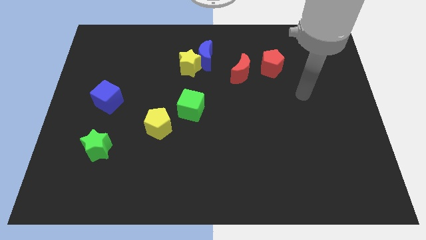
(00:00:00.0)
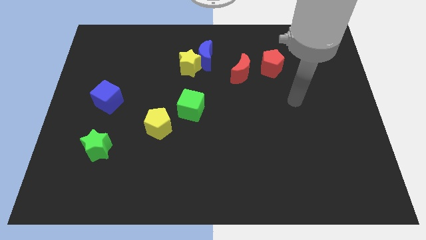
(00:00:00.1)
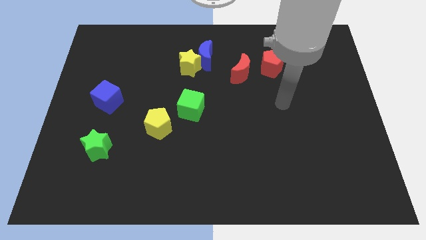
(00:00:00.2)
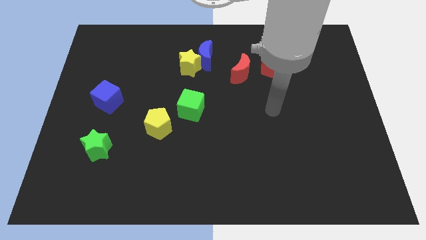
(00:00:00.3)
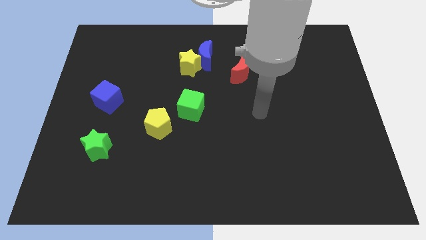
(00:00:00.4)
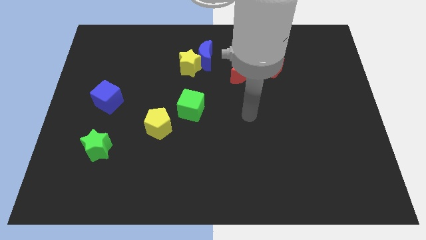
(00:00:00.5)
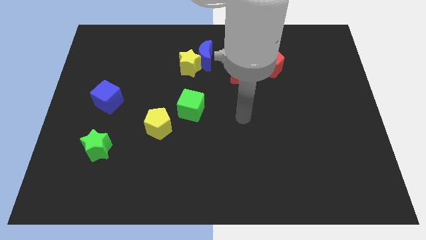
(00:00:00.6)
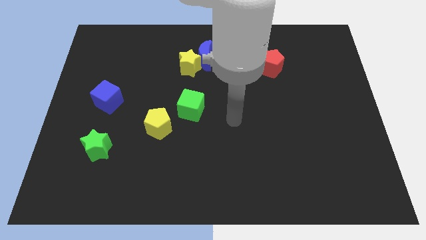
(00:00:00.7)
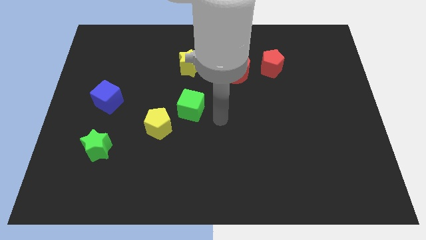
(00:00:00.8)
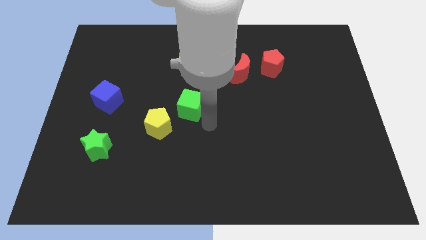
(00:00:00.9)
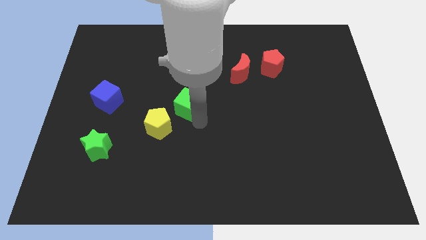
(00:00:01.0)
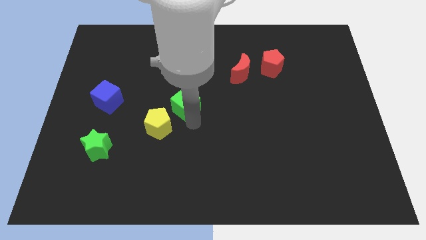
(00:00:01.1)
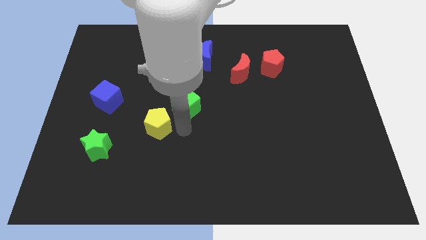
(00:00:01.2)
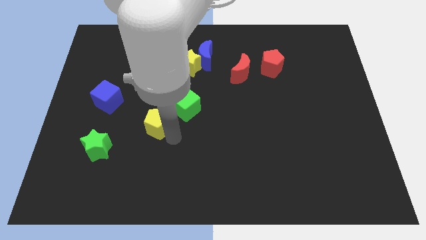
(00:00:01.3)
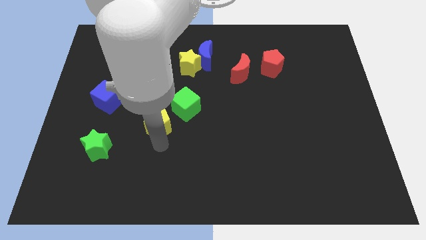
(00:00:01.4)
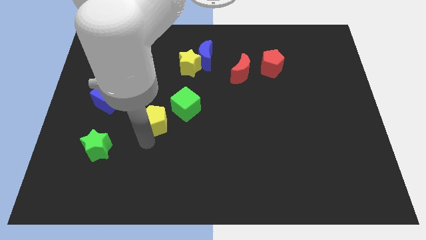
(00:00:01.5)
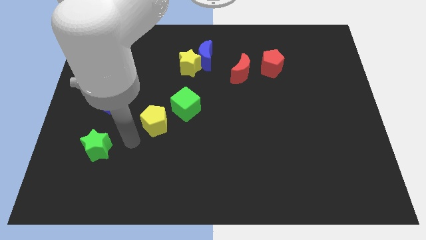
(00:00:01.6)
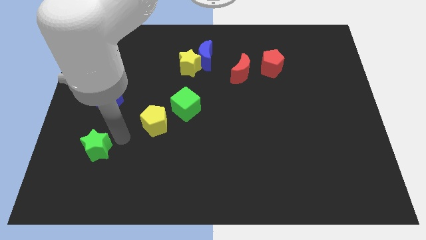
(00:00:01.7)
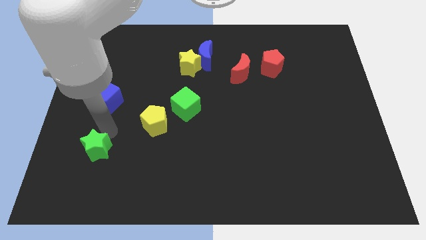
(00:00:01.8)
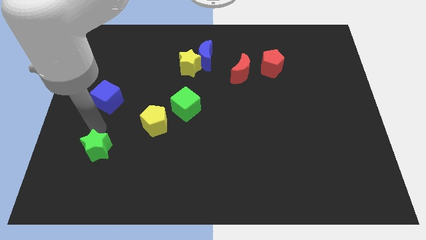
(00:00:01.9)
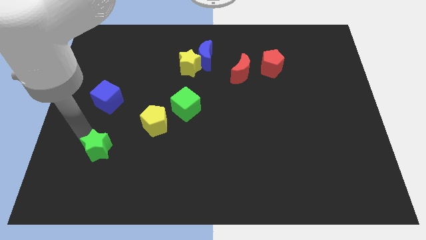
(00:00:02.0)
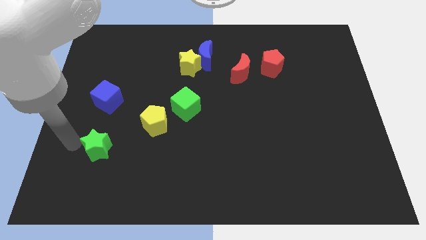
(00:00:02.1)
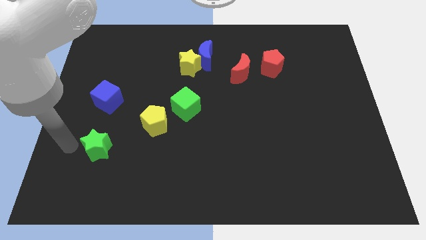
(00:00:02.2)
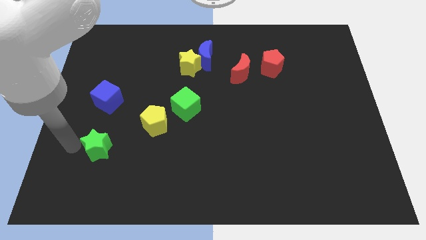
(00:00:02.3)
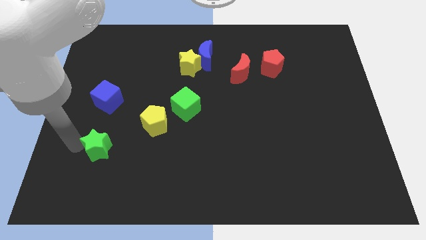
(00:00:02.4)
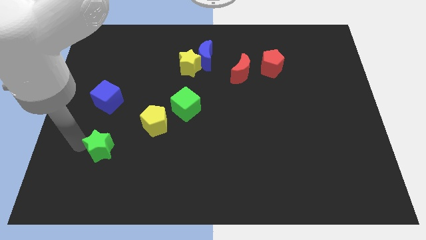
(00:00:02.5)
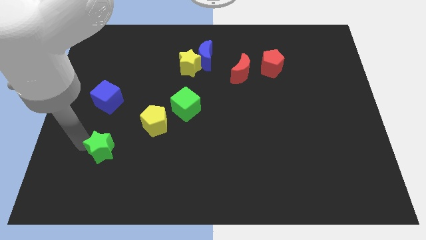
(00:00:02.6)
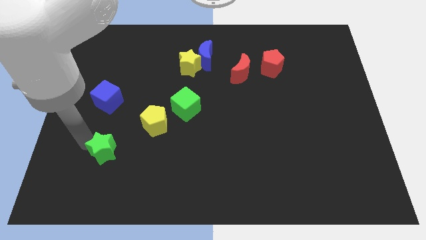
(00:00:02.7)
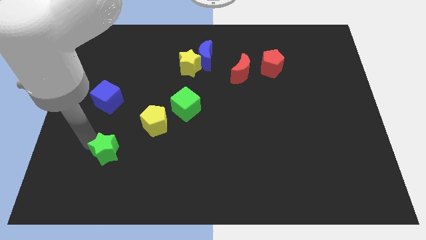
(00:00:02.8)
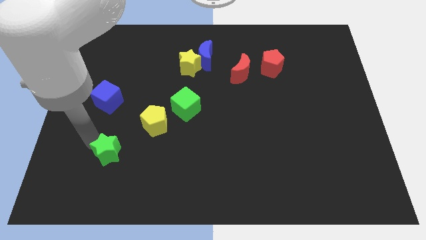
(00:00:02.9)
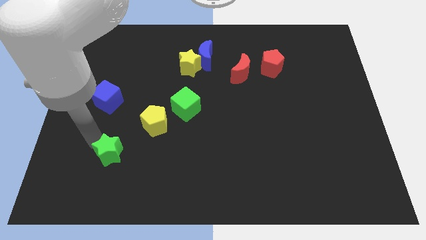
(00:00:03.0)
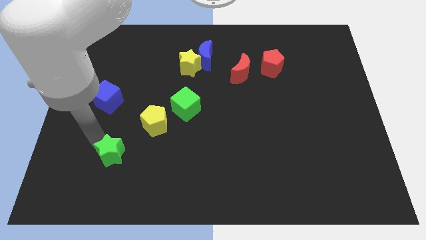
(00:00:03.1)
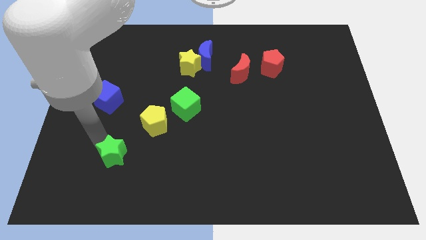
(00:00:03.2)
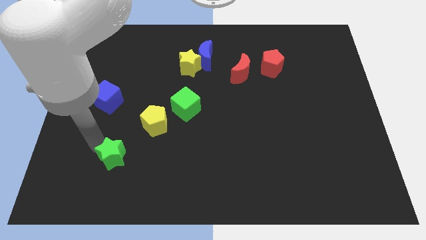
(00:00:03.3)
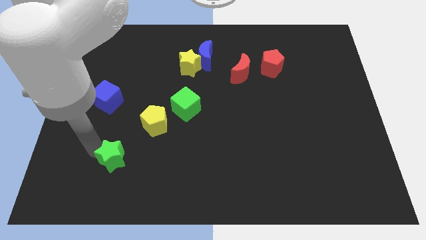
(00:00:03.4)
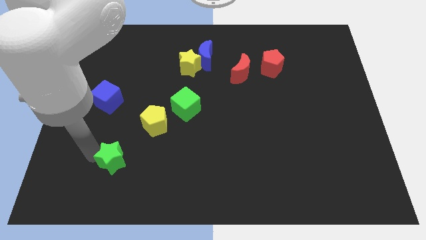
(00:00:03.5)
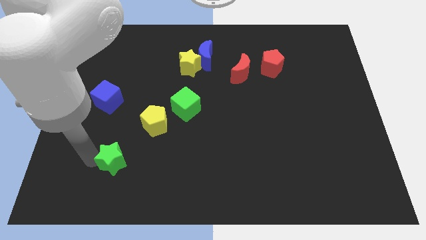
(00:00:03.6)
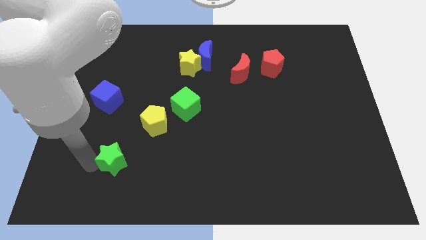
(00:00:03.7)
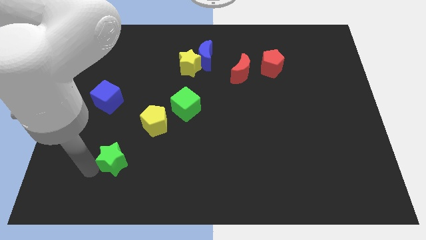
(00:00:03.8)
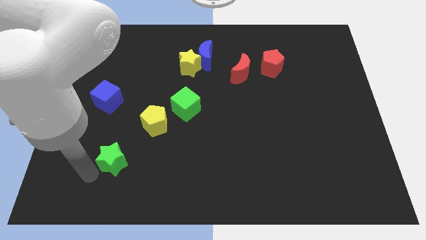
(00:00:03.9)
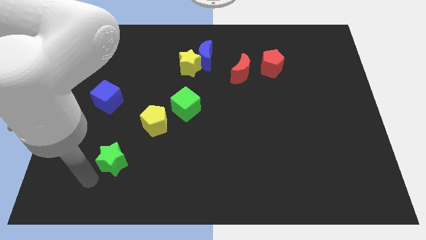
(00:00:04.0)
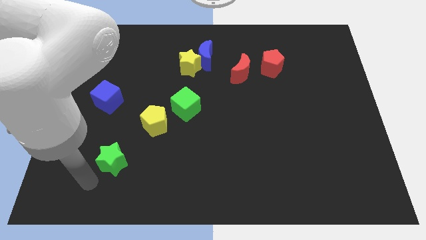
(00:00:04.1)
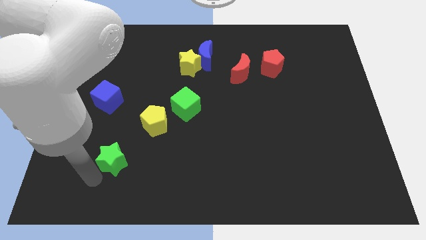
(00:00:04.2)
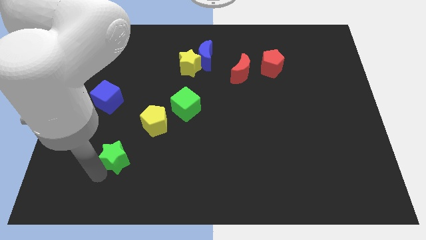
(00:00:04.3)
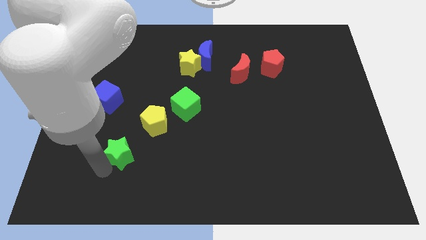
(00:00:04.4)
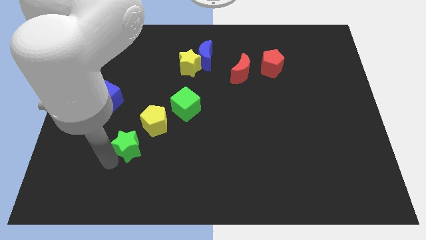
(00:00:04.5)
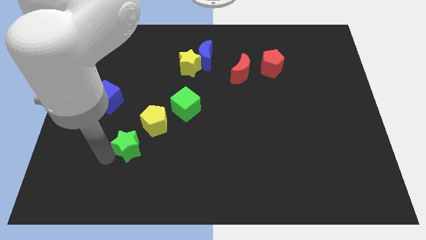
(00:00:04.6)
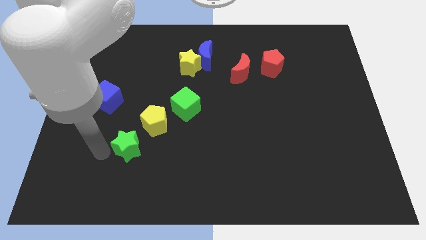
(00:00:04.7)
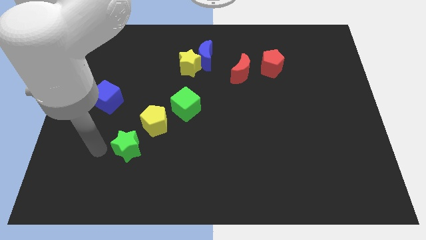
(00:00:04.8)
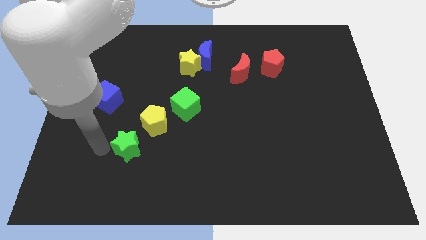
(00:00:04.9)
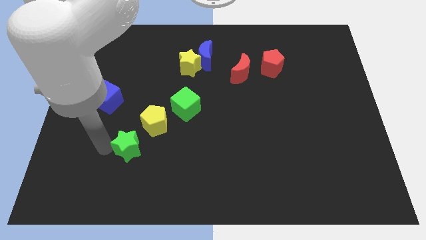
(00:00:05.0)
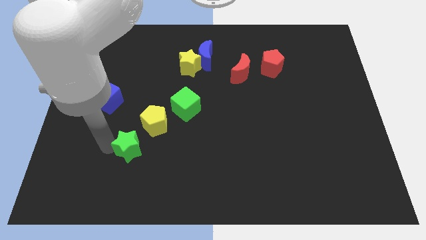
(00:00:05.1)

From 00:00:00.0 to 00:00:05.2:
slide the green star to the right a little

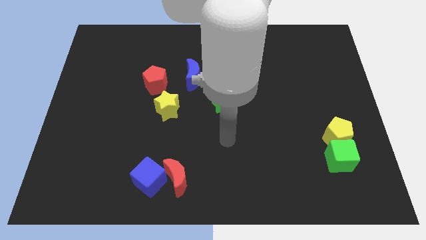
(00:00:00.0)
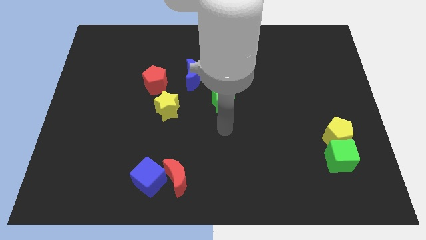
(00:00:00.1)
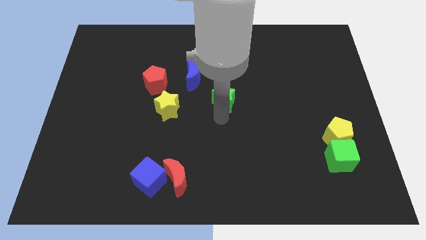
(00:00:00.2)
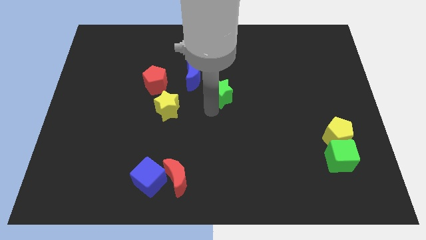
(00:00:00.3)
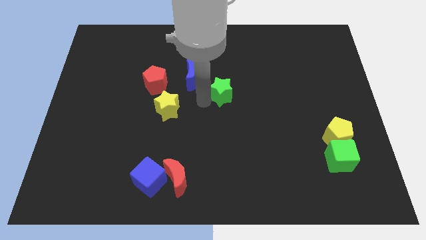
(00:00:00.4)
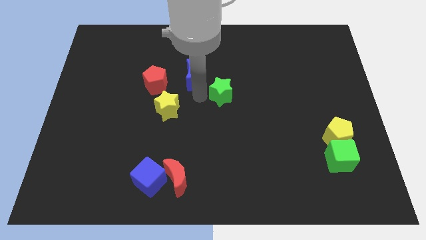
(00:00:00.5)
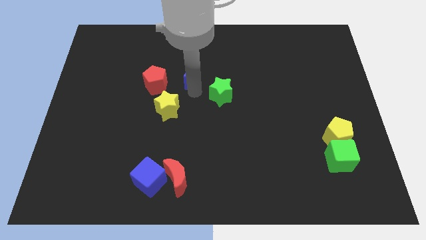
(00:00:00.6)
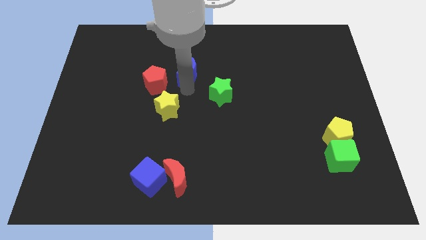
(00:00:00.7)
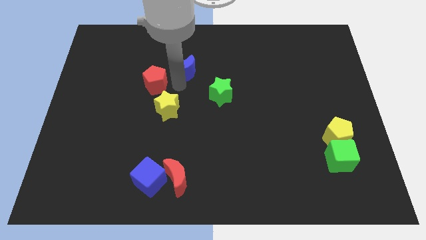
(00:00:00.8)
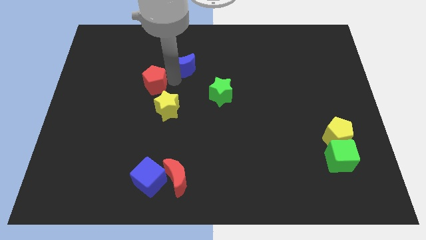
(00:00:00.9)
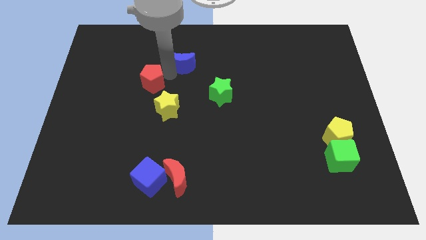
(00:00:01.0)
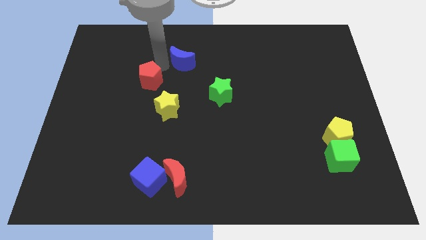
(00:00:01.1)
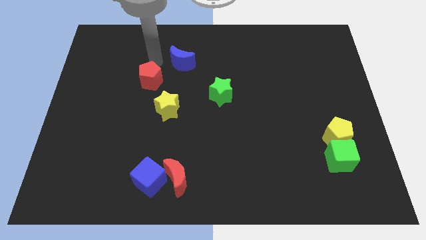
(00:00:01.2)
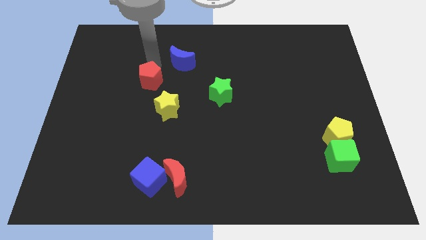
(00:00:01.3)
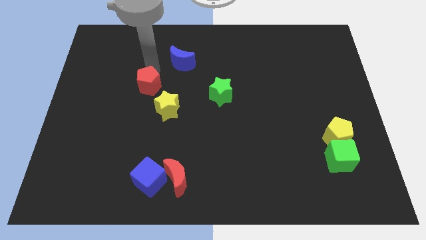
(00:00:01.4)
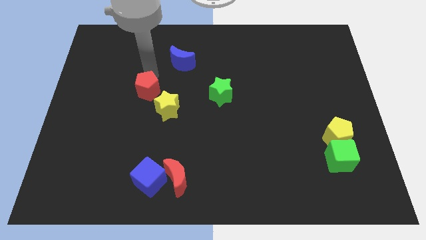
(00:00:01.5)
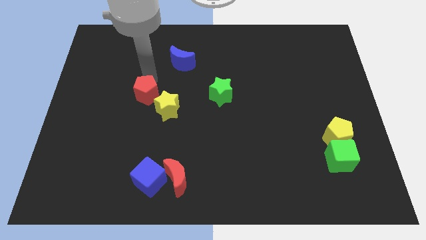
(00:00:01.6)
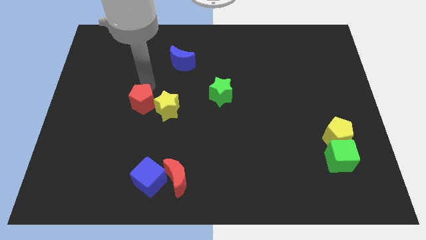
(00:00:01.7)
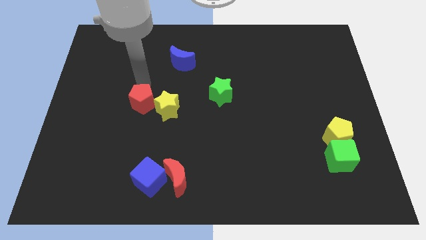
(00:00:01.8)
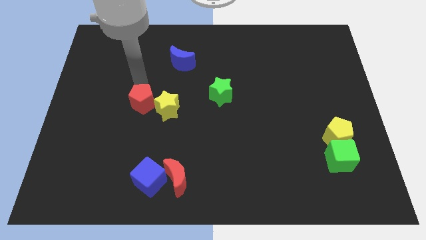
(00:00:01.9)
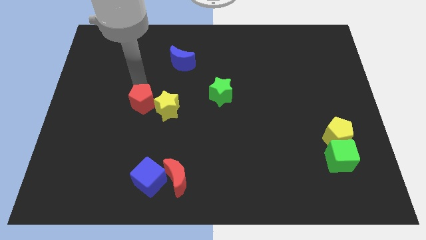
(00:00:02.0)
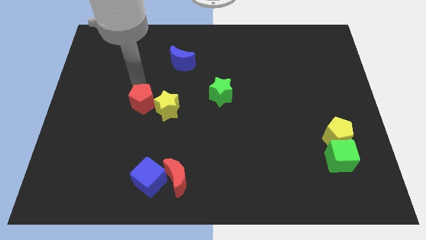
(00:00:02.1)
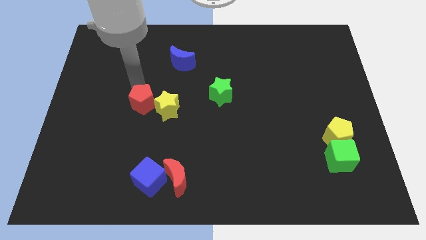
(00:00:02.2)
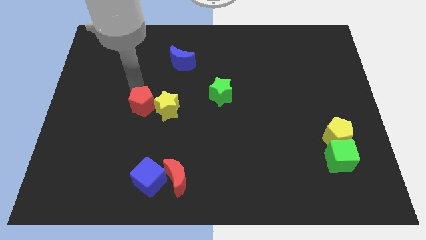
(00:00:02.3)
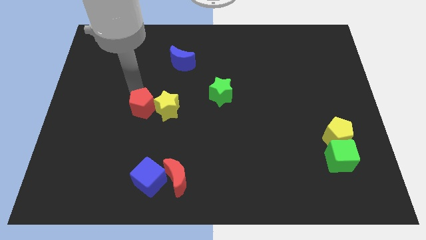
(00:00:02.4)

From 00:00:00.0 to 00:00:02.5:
slightly move the red pentagon downwards

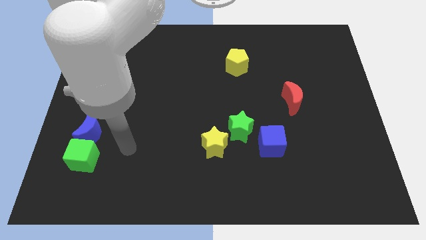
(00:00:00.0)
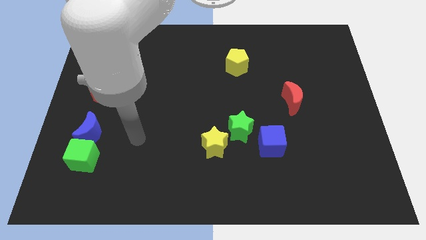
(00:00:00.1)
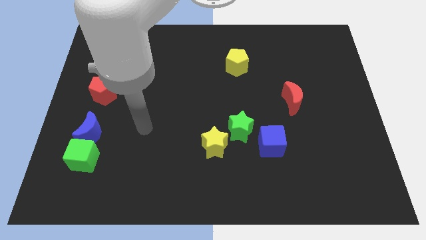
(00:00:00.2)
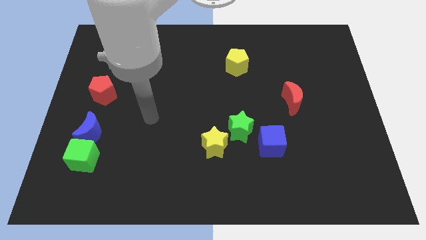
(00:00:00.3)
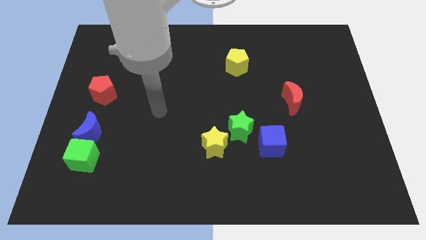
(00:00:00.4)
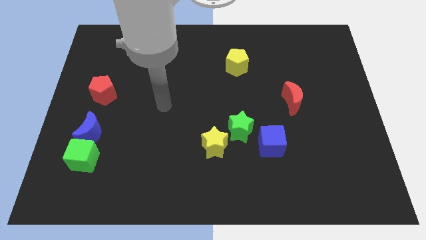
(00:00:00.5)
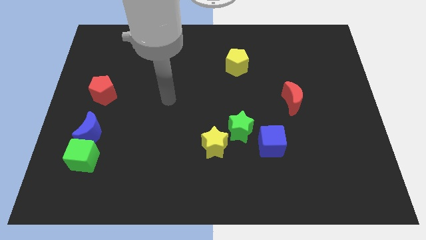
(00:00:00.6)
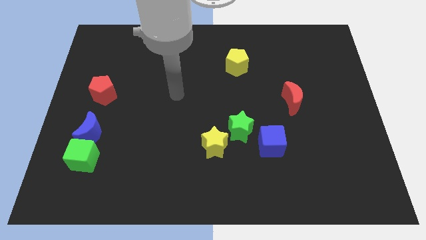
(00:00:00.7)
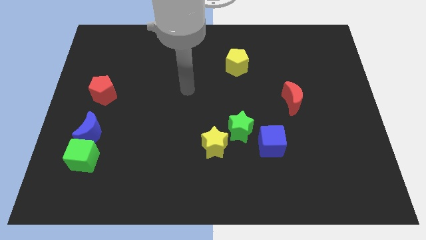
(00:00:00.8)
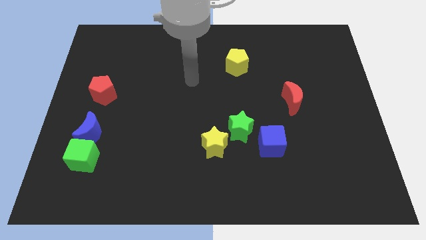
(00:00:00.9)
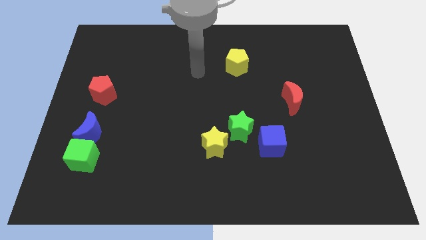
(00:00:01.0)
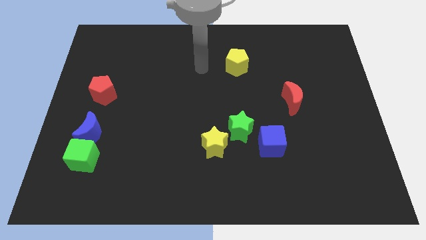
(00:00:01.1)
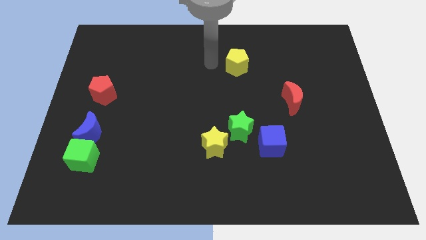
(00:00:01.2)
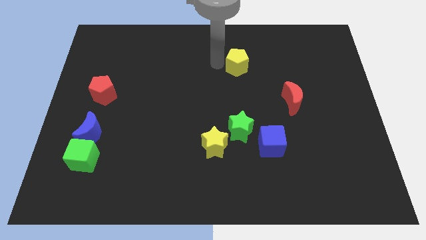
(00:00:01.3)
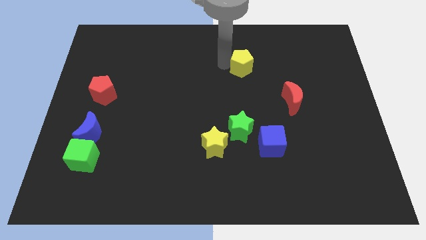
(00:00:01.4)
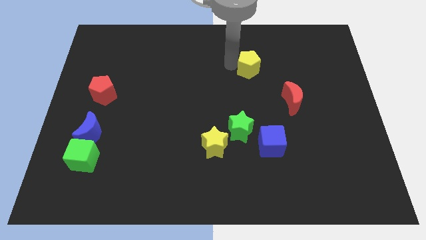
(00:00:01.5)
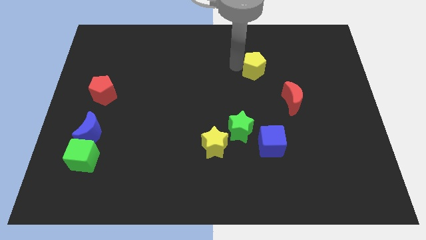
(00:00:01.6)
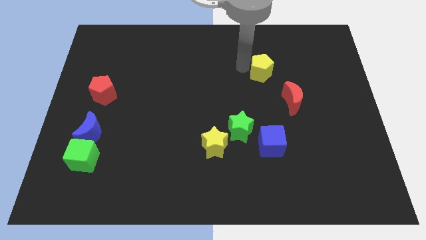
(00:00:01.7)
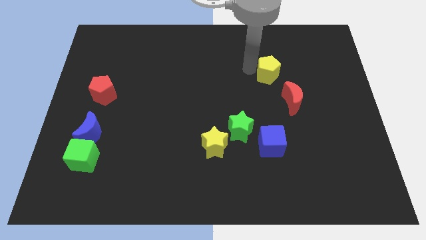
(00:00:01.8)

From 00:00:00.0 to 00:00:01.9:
push the yellow pentagon right somewhat
